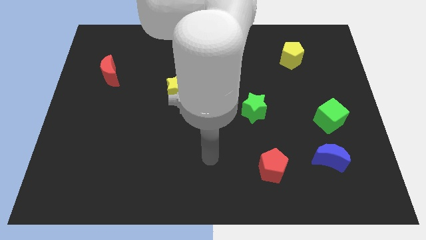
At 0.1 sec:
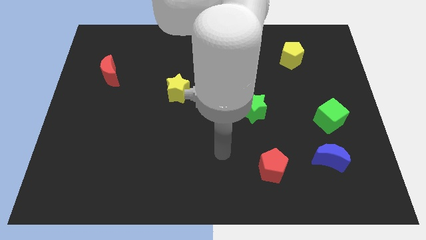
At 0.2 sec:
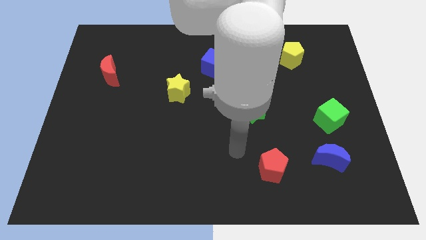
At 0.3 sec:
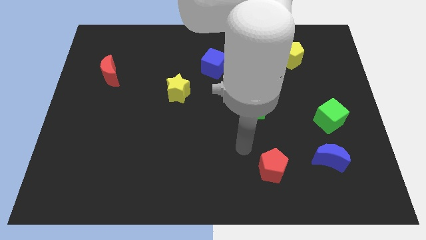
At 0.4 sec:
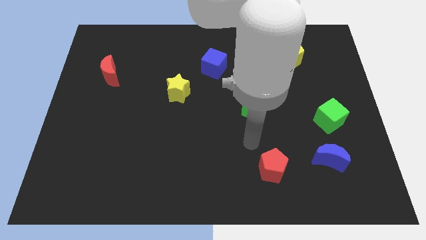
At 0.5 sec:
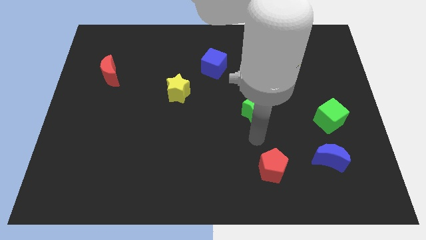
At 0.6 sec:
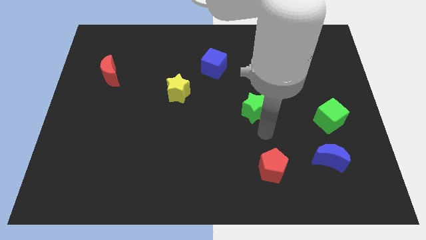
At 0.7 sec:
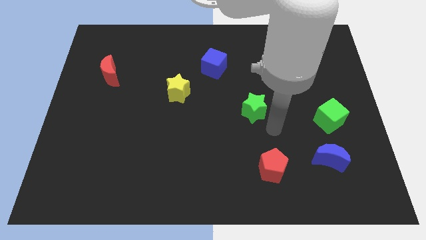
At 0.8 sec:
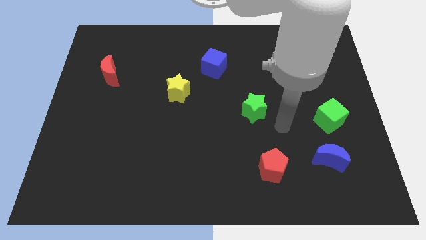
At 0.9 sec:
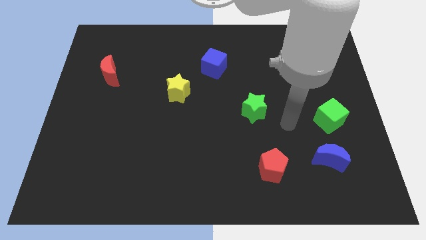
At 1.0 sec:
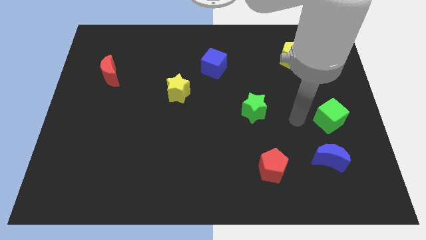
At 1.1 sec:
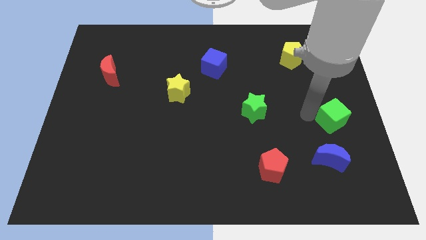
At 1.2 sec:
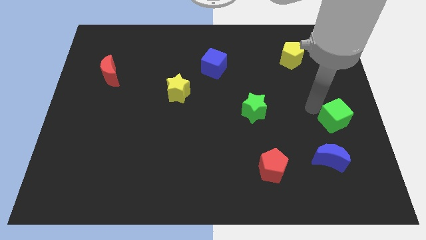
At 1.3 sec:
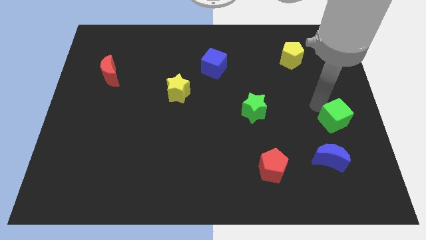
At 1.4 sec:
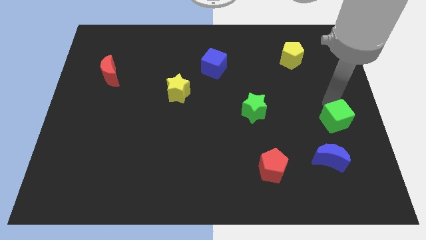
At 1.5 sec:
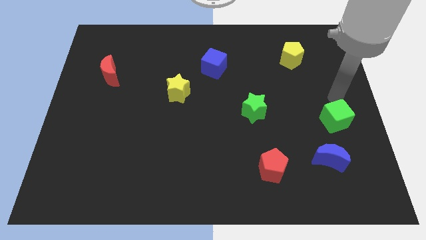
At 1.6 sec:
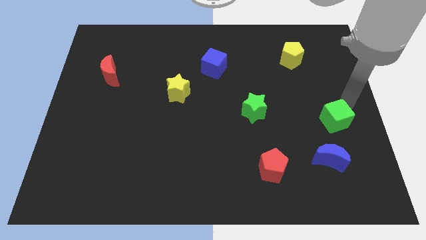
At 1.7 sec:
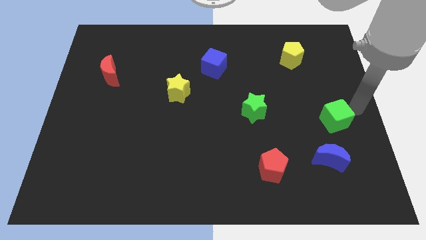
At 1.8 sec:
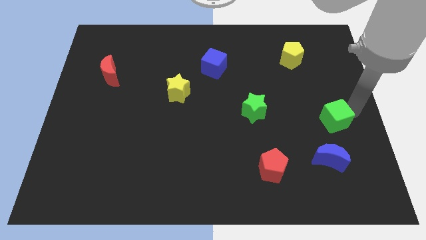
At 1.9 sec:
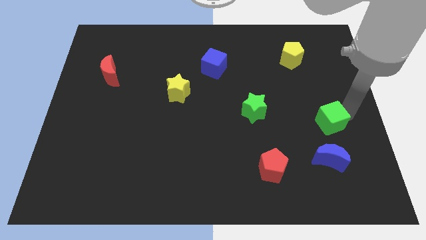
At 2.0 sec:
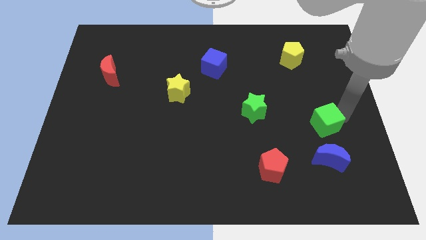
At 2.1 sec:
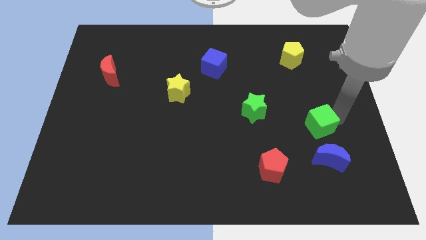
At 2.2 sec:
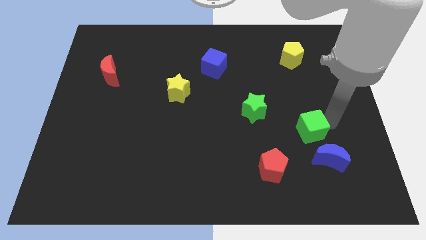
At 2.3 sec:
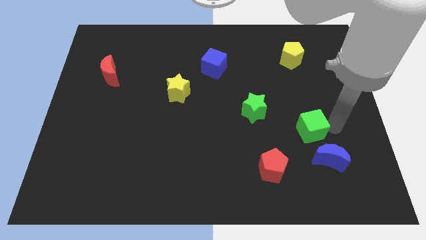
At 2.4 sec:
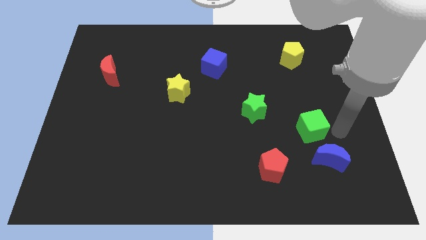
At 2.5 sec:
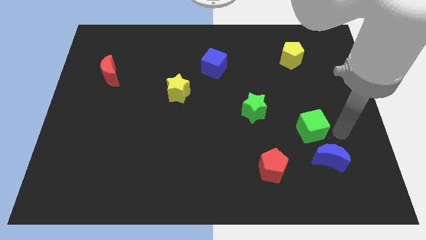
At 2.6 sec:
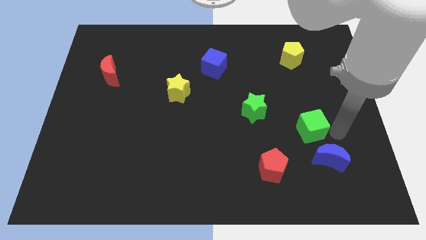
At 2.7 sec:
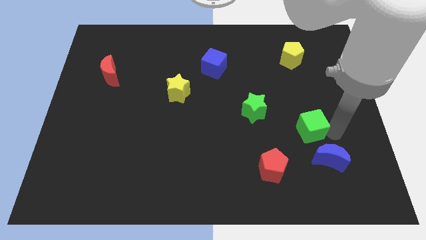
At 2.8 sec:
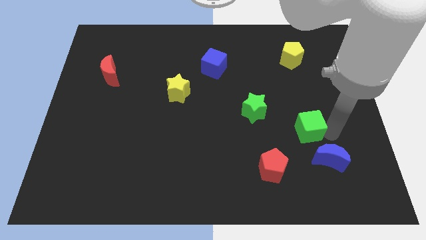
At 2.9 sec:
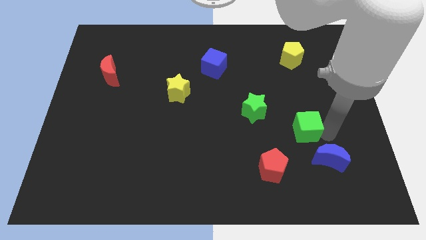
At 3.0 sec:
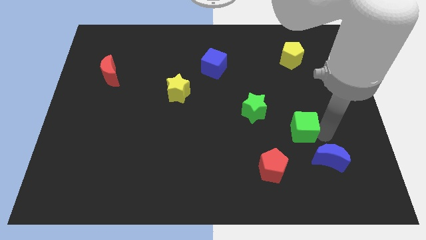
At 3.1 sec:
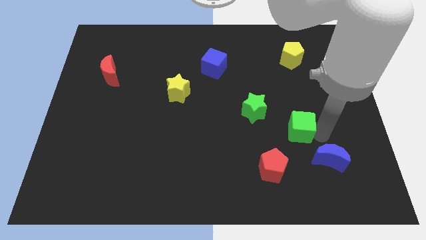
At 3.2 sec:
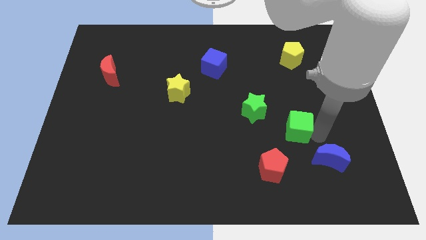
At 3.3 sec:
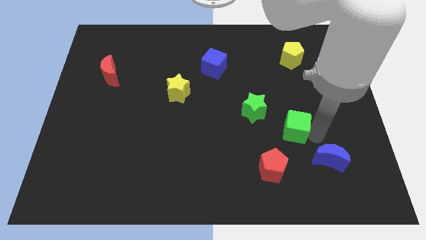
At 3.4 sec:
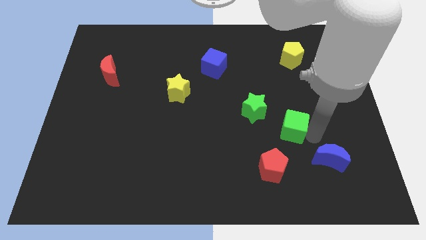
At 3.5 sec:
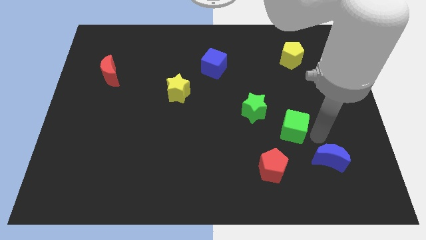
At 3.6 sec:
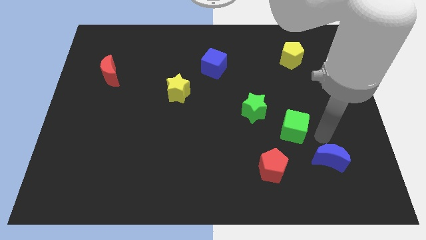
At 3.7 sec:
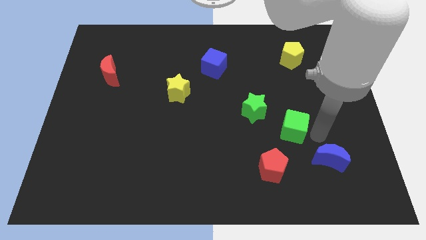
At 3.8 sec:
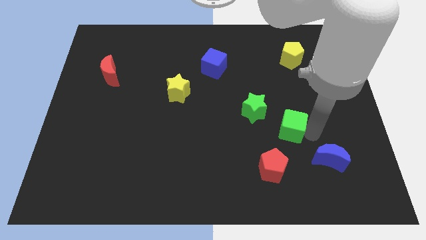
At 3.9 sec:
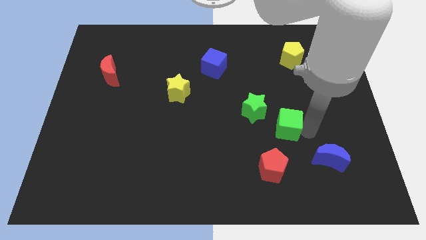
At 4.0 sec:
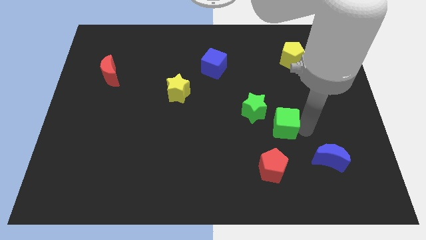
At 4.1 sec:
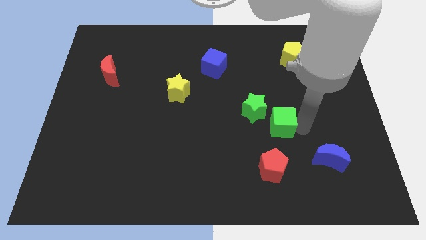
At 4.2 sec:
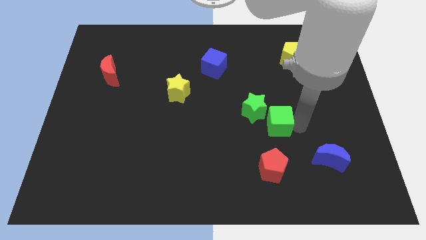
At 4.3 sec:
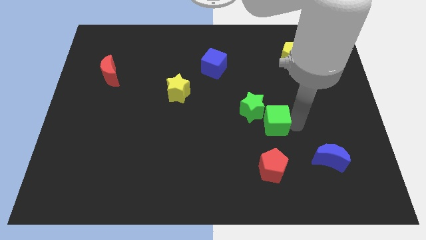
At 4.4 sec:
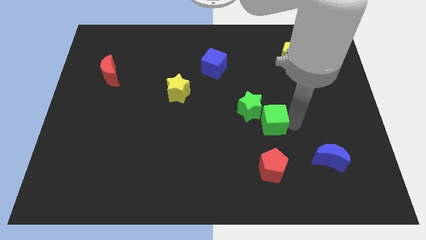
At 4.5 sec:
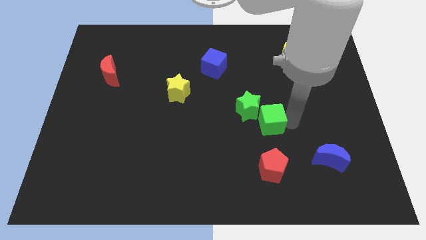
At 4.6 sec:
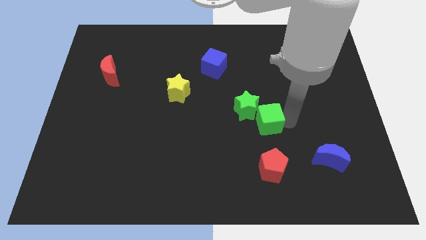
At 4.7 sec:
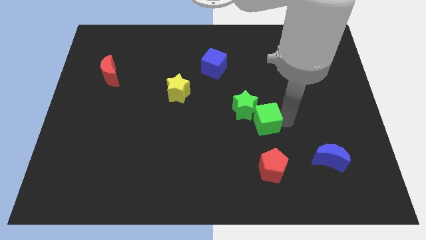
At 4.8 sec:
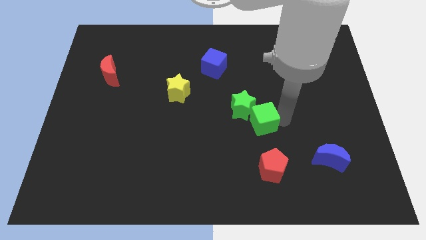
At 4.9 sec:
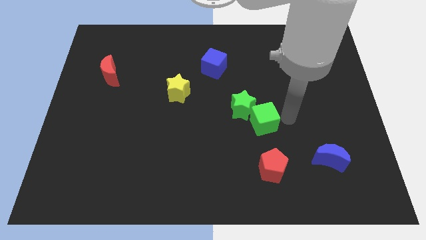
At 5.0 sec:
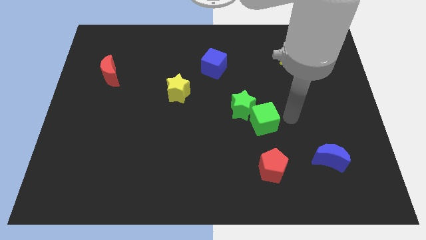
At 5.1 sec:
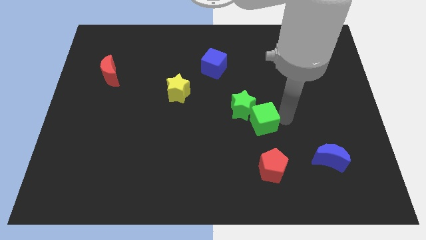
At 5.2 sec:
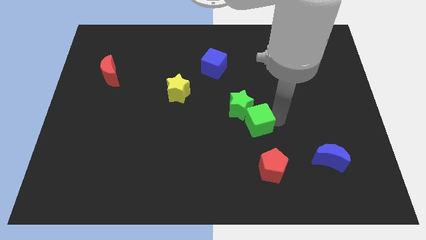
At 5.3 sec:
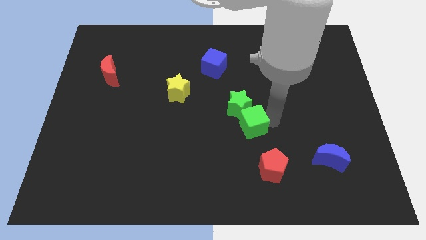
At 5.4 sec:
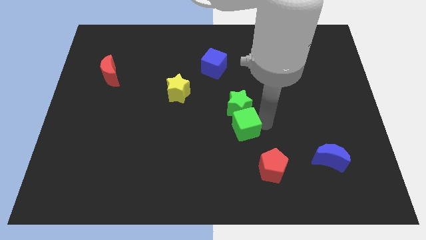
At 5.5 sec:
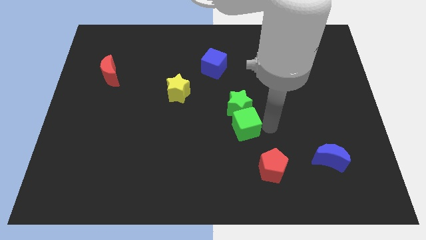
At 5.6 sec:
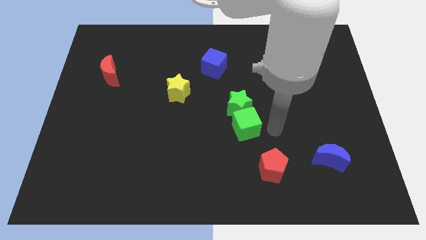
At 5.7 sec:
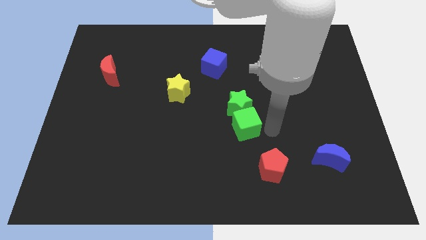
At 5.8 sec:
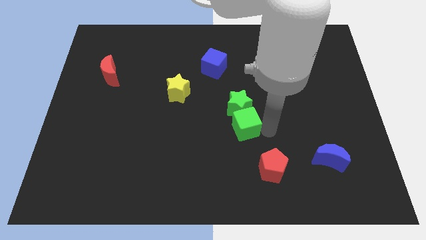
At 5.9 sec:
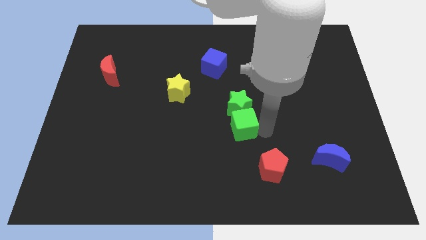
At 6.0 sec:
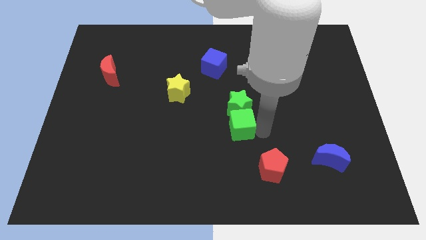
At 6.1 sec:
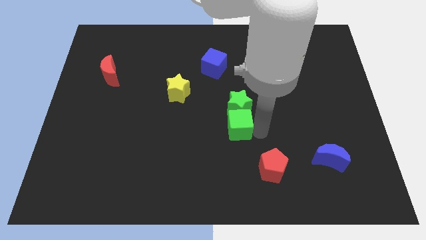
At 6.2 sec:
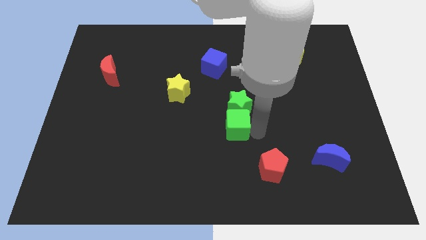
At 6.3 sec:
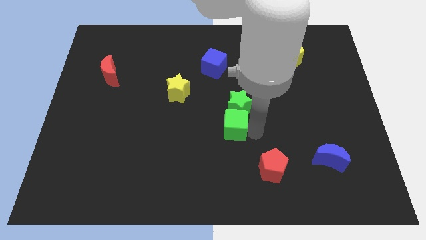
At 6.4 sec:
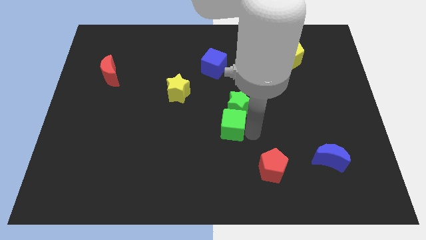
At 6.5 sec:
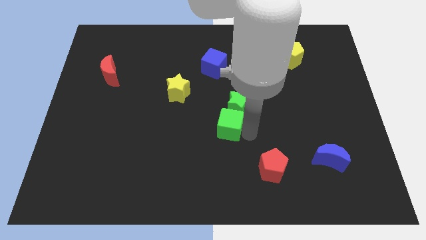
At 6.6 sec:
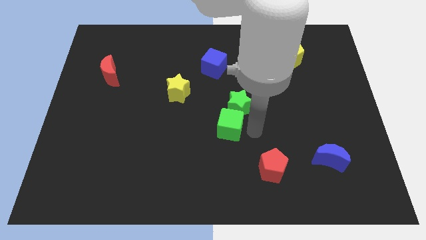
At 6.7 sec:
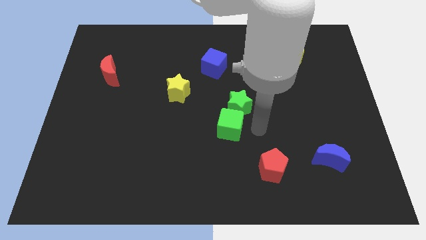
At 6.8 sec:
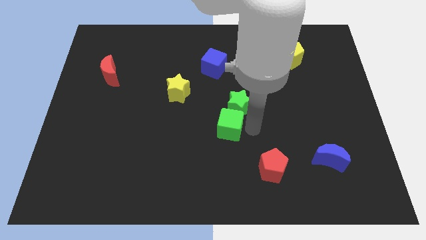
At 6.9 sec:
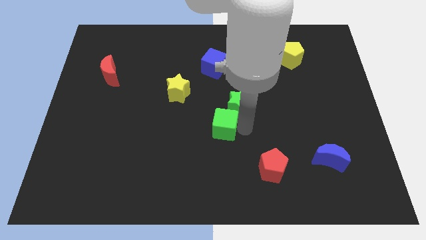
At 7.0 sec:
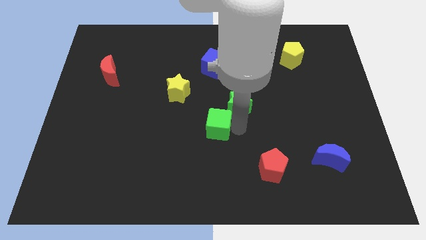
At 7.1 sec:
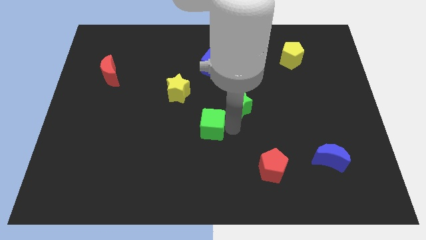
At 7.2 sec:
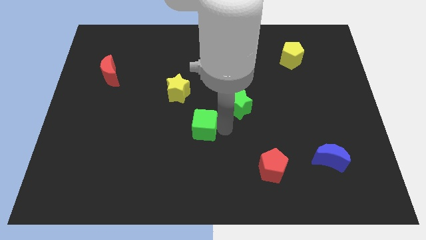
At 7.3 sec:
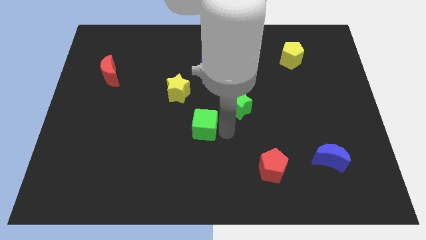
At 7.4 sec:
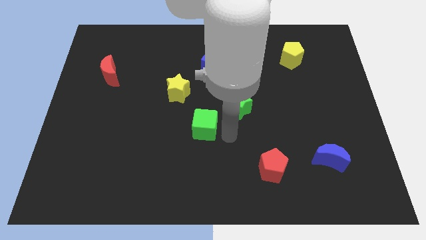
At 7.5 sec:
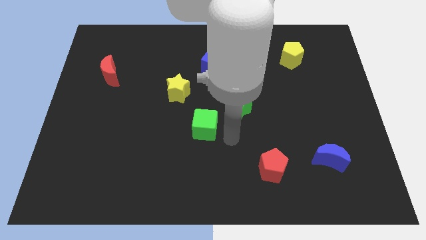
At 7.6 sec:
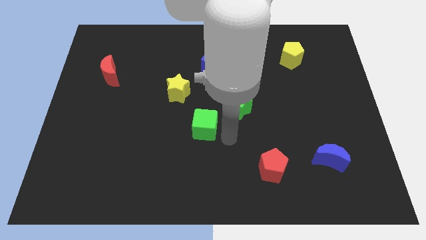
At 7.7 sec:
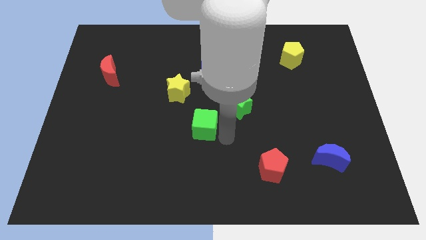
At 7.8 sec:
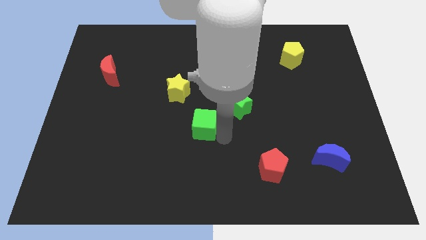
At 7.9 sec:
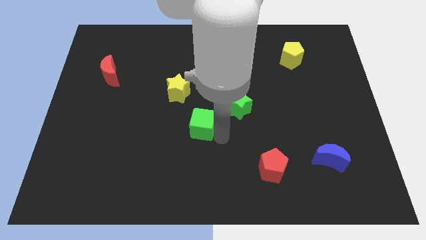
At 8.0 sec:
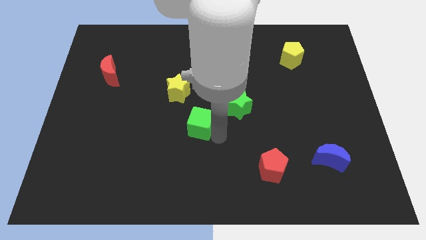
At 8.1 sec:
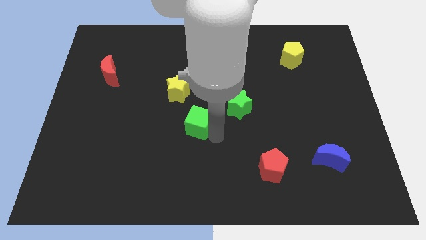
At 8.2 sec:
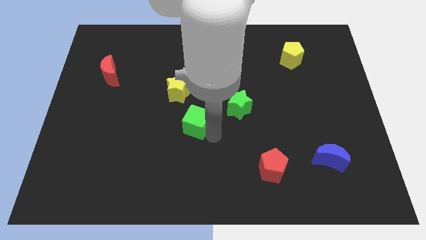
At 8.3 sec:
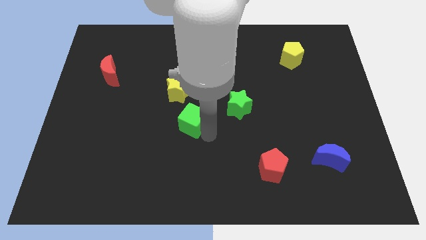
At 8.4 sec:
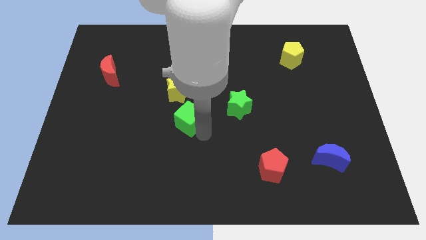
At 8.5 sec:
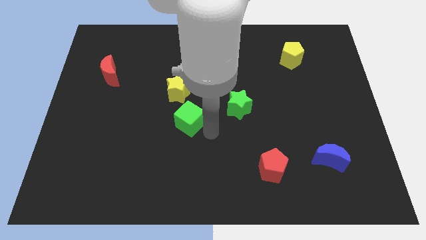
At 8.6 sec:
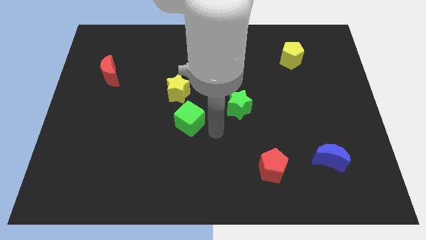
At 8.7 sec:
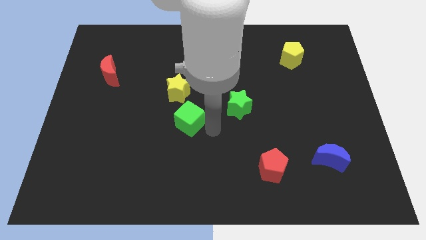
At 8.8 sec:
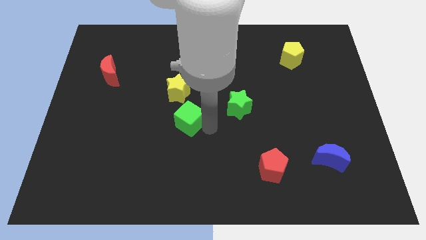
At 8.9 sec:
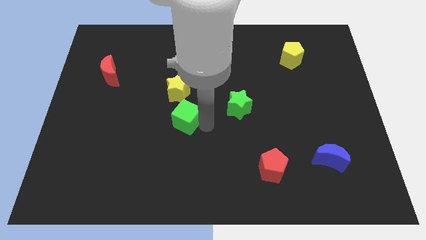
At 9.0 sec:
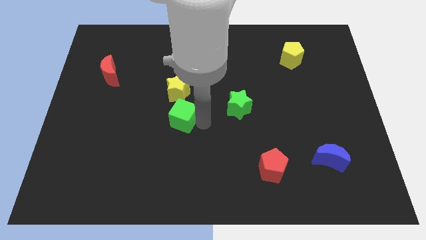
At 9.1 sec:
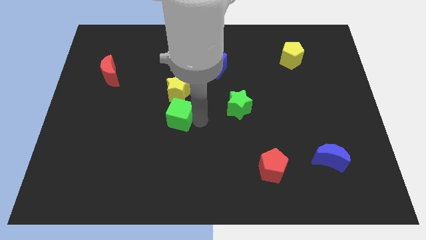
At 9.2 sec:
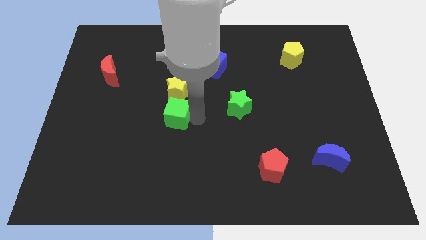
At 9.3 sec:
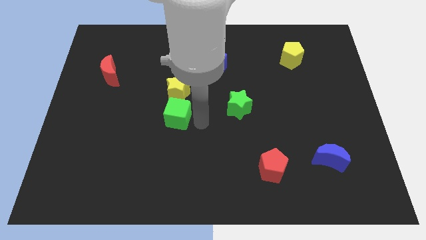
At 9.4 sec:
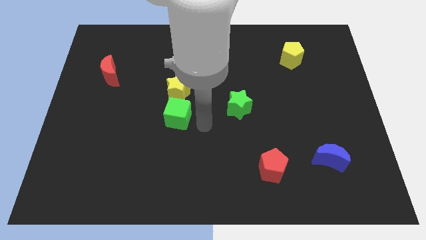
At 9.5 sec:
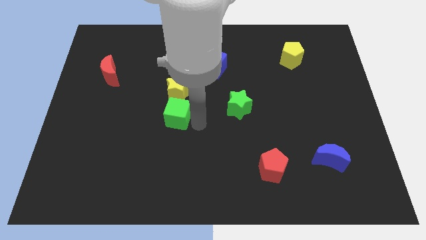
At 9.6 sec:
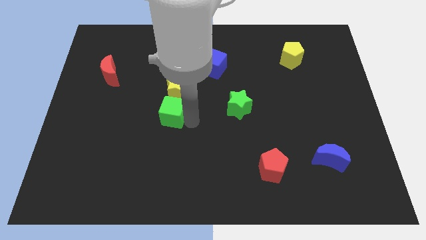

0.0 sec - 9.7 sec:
move the green cube to the bottom left of the yellow star
